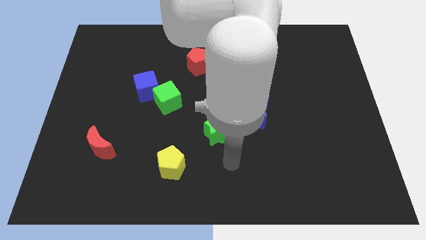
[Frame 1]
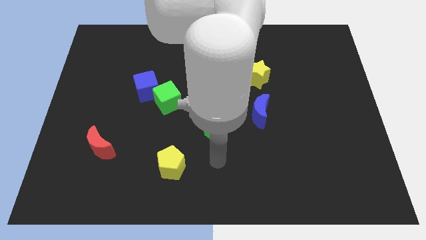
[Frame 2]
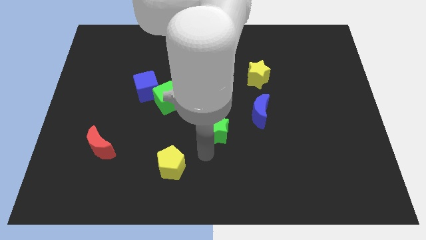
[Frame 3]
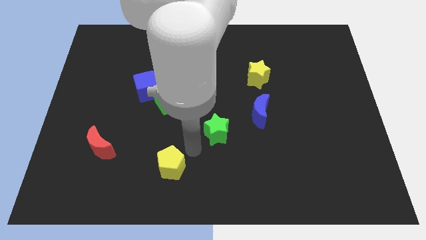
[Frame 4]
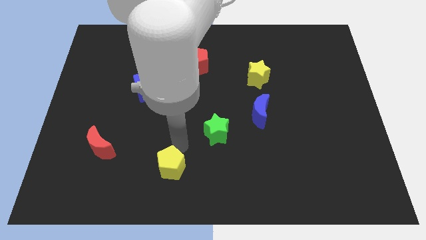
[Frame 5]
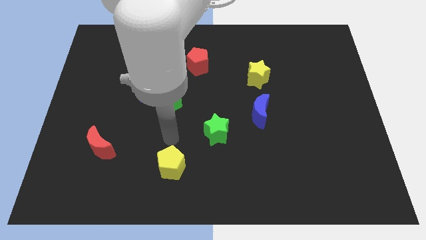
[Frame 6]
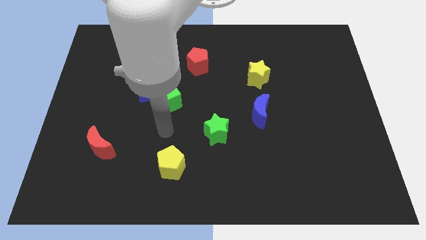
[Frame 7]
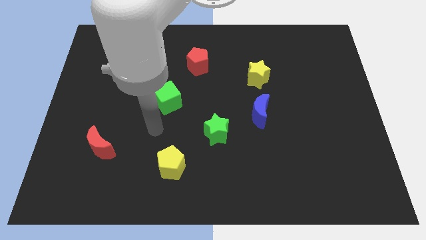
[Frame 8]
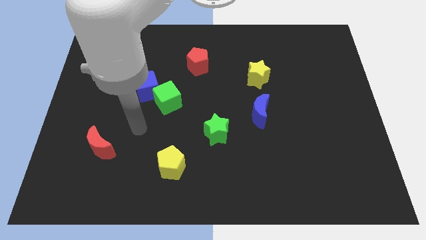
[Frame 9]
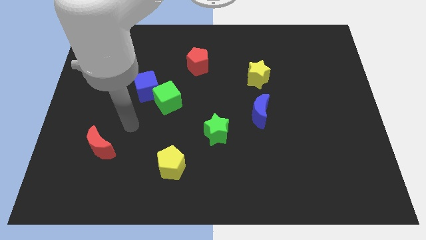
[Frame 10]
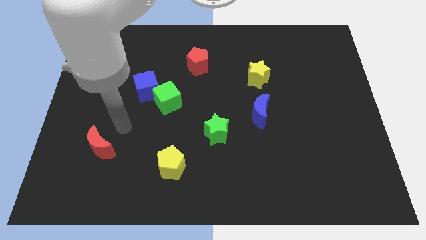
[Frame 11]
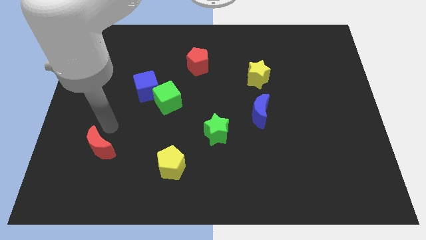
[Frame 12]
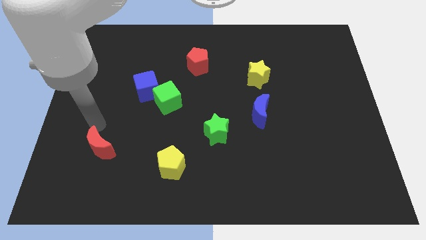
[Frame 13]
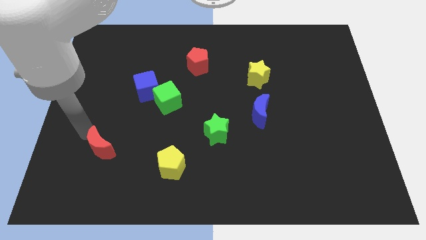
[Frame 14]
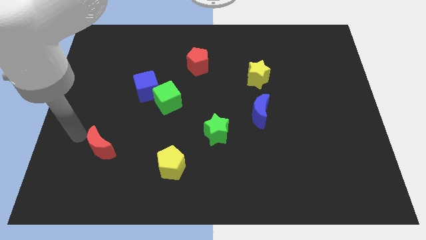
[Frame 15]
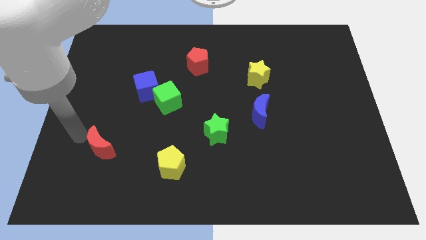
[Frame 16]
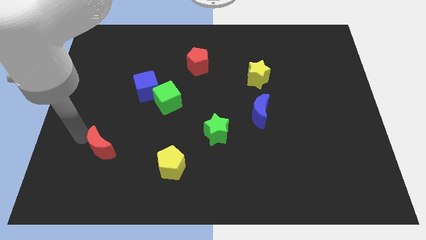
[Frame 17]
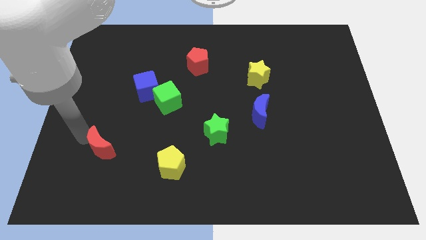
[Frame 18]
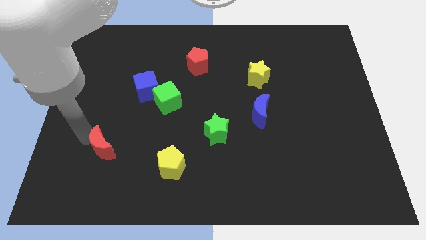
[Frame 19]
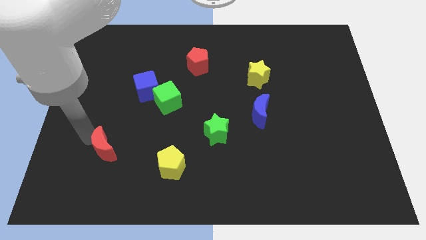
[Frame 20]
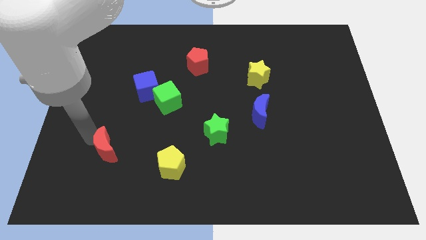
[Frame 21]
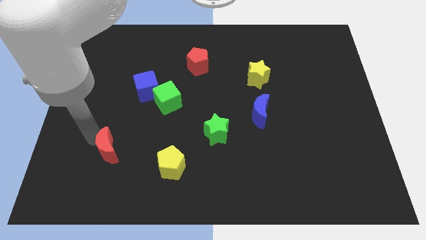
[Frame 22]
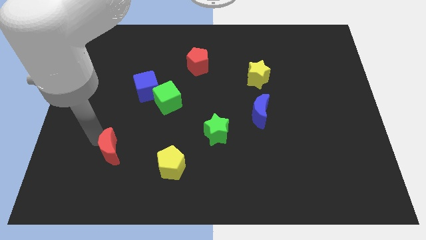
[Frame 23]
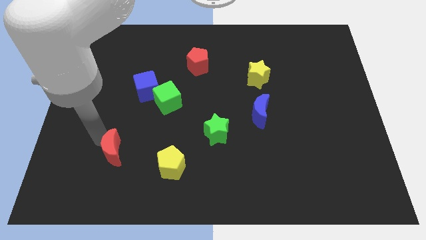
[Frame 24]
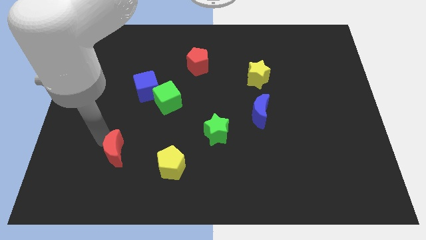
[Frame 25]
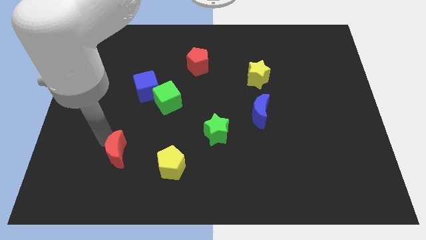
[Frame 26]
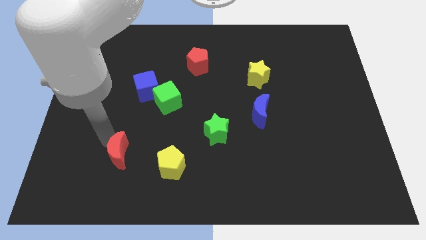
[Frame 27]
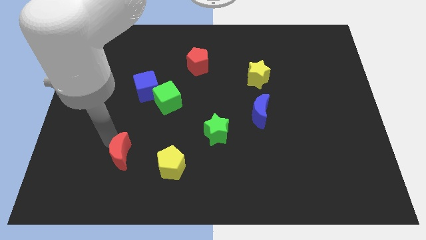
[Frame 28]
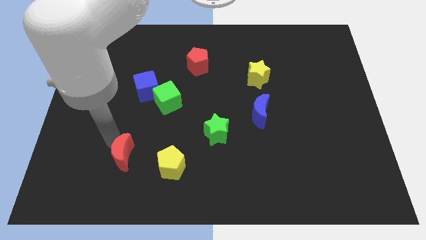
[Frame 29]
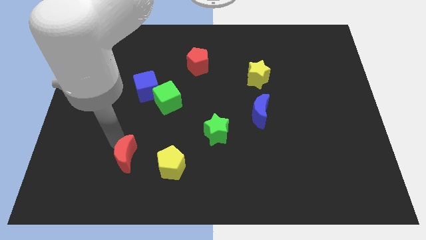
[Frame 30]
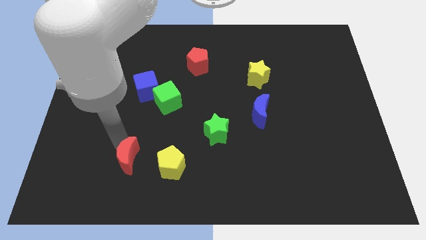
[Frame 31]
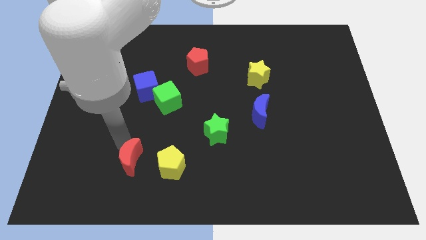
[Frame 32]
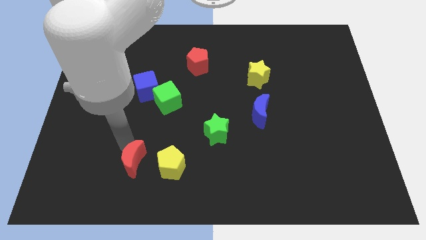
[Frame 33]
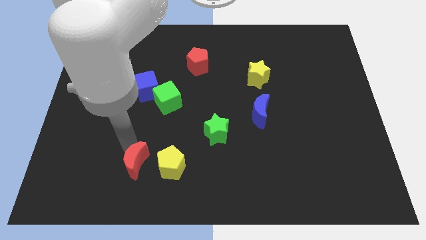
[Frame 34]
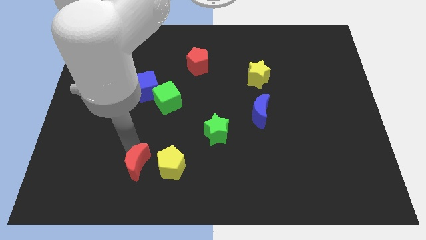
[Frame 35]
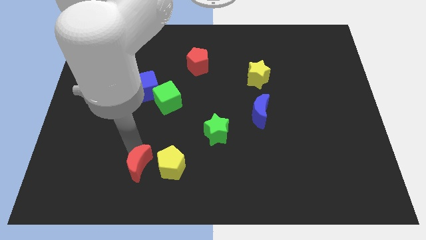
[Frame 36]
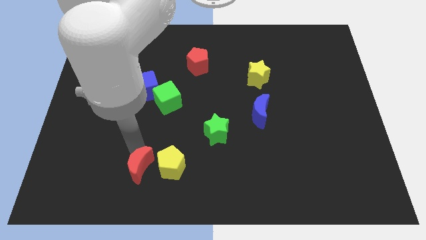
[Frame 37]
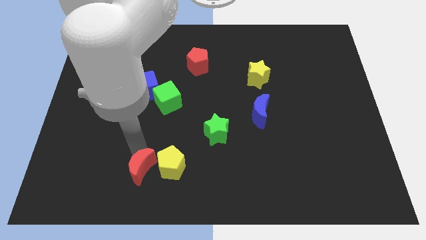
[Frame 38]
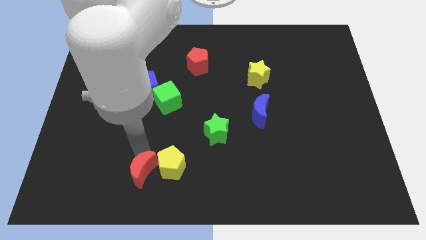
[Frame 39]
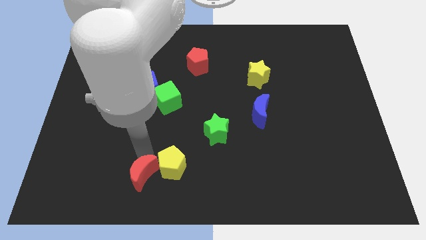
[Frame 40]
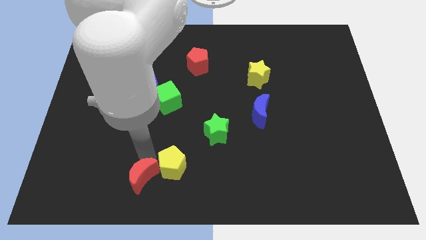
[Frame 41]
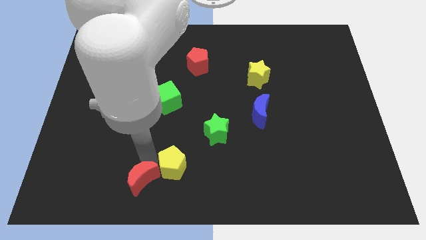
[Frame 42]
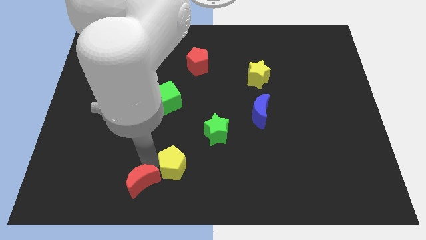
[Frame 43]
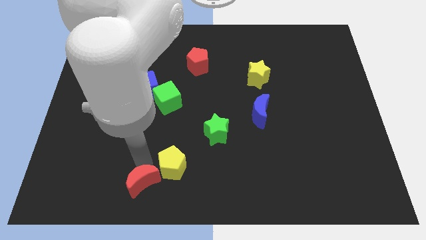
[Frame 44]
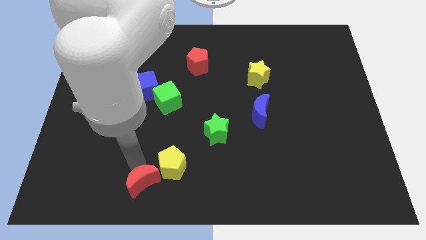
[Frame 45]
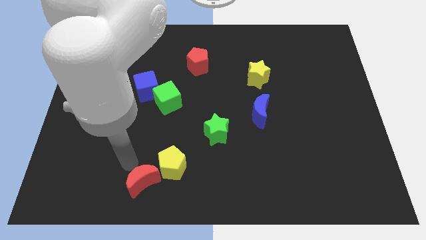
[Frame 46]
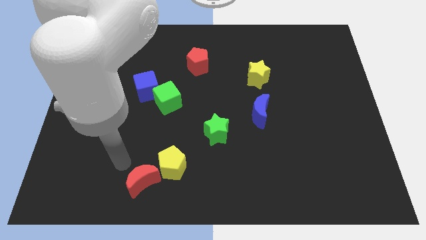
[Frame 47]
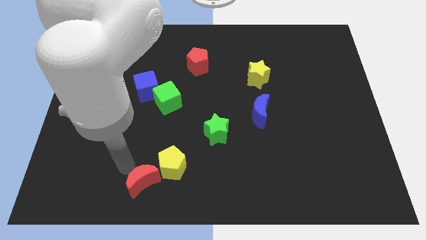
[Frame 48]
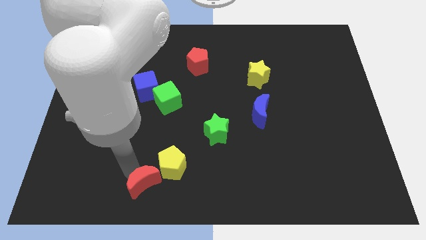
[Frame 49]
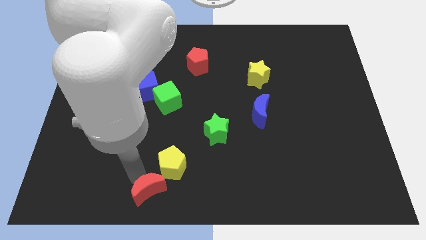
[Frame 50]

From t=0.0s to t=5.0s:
put the red moon to the bottom side

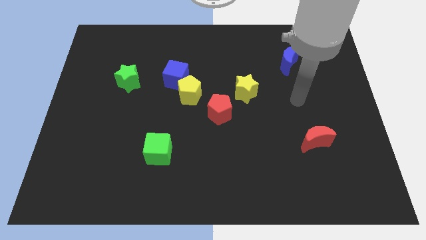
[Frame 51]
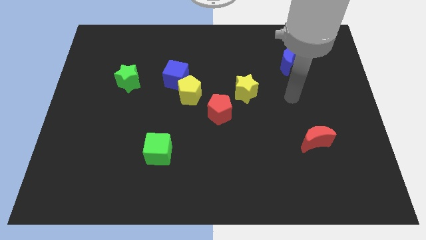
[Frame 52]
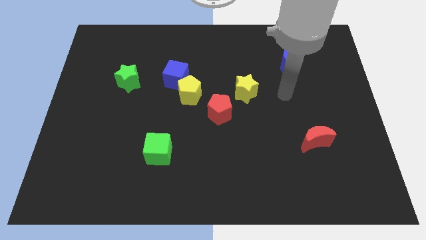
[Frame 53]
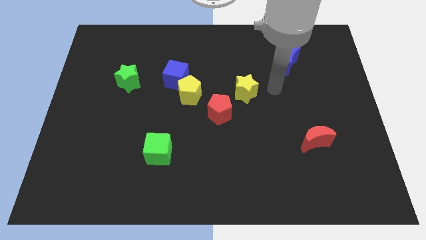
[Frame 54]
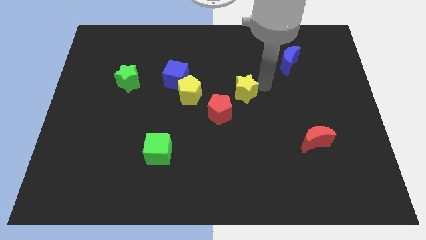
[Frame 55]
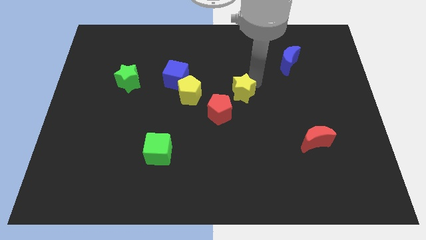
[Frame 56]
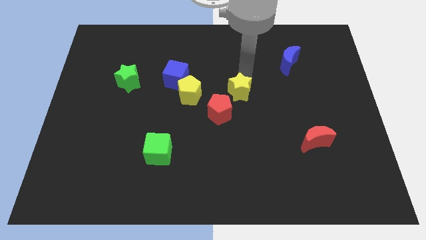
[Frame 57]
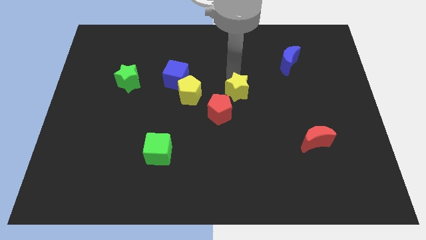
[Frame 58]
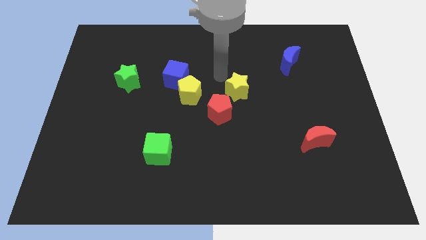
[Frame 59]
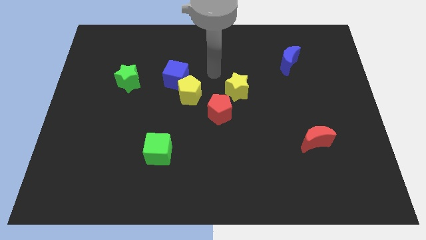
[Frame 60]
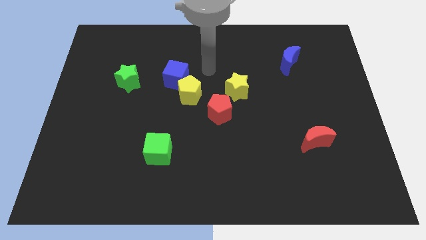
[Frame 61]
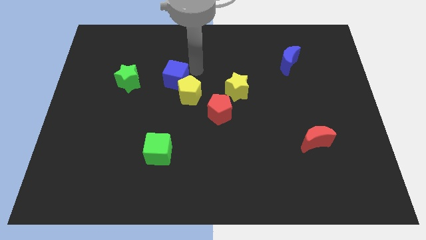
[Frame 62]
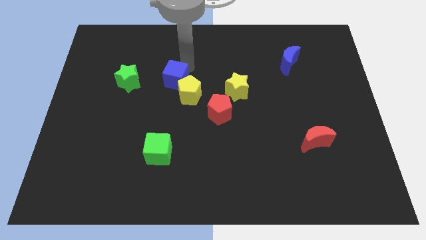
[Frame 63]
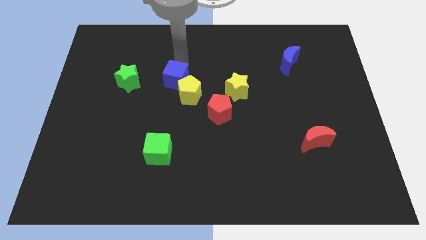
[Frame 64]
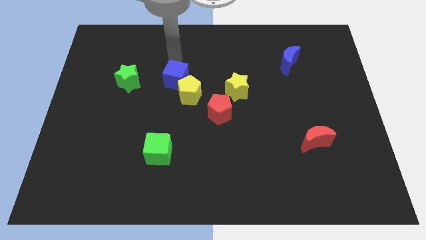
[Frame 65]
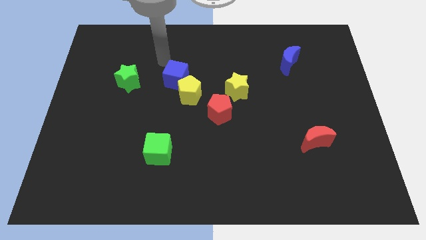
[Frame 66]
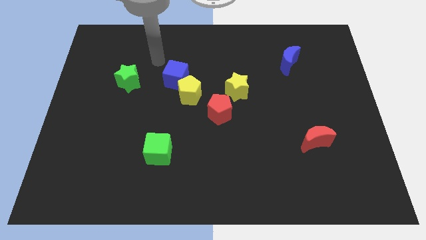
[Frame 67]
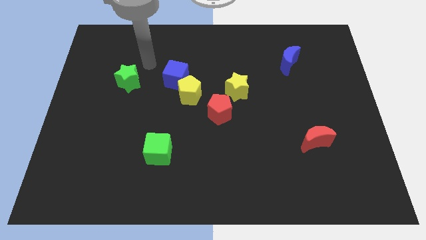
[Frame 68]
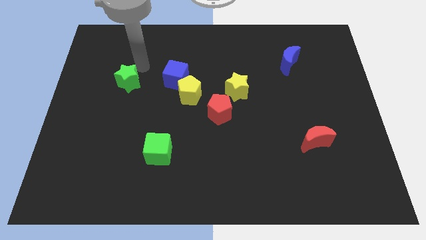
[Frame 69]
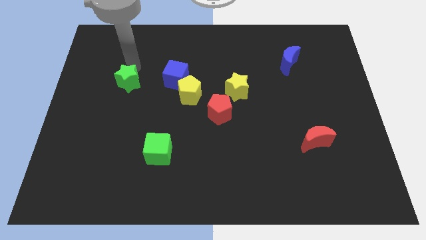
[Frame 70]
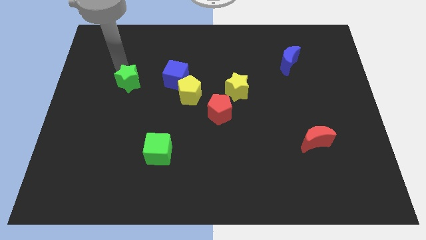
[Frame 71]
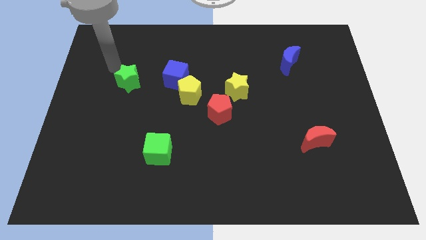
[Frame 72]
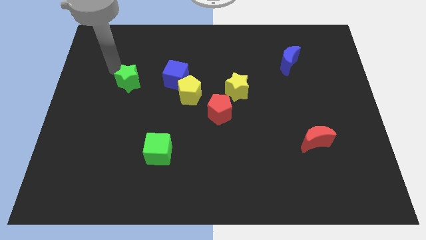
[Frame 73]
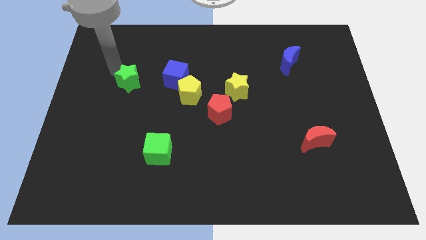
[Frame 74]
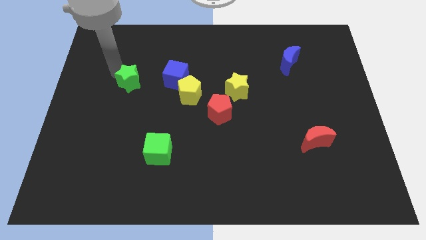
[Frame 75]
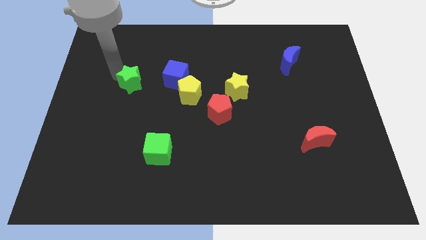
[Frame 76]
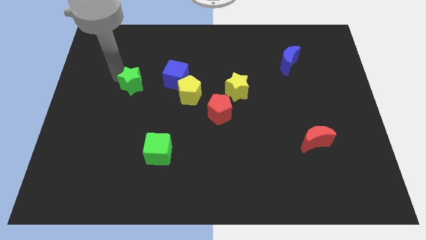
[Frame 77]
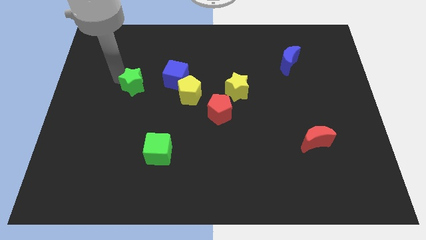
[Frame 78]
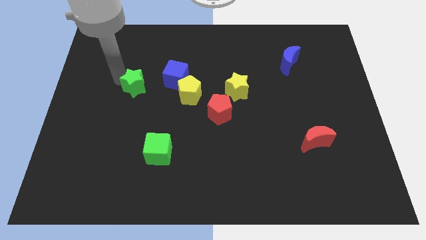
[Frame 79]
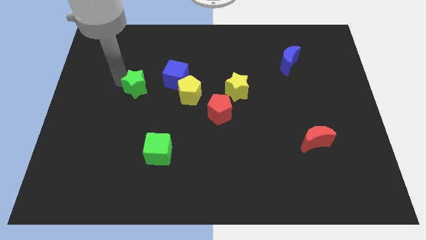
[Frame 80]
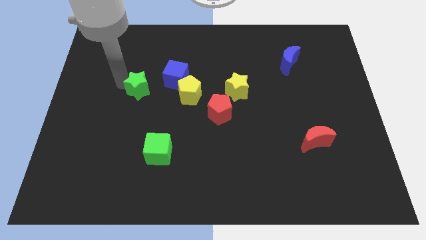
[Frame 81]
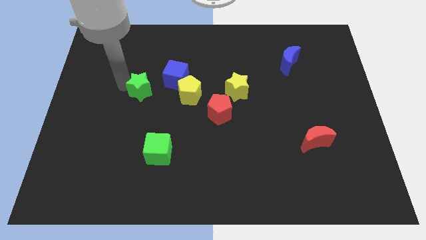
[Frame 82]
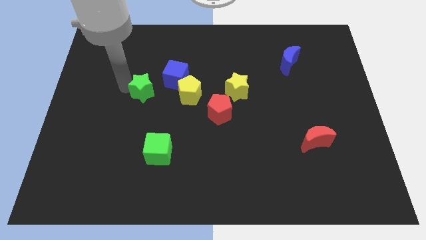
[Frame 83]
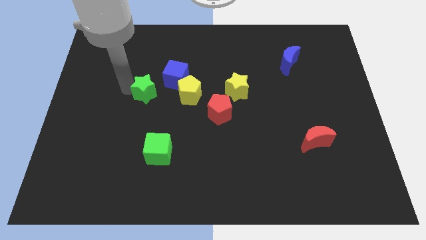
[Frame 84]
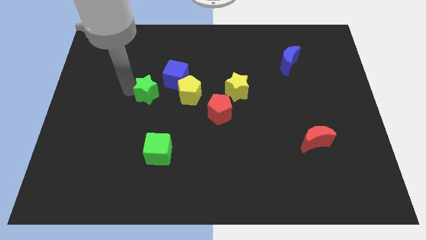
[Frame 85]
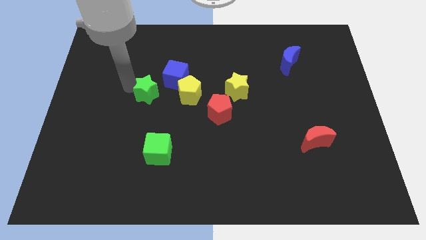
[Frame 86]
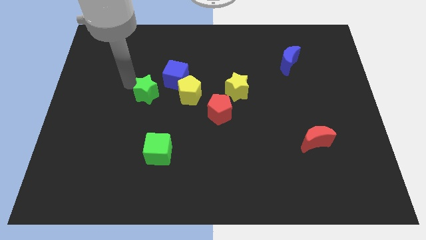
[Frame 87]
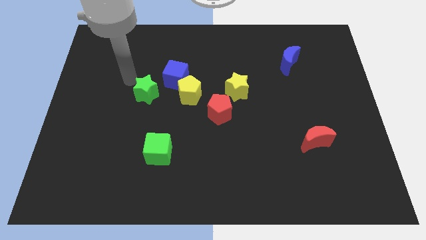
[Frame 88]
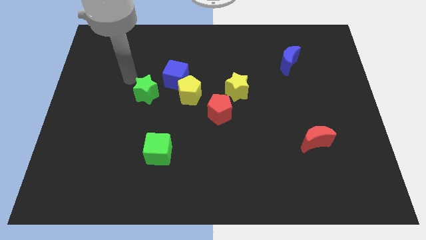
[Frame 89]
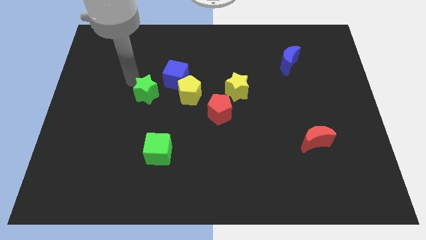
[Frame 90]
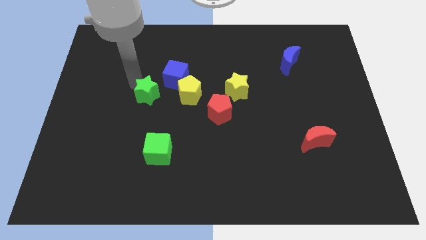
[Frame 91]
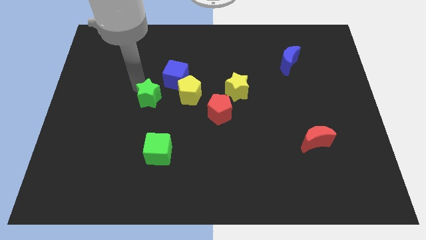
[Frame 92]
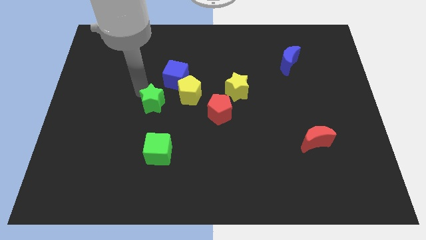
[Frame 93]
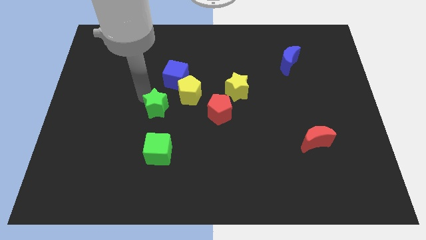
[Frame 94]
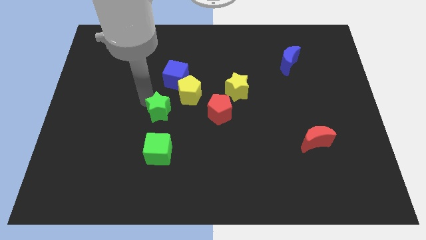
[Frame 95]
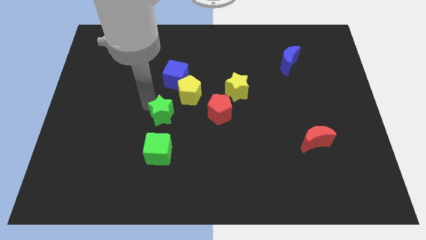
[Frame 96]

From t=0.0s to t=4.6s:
slide the green star to the middle
